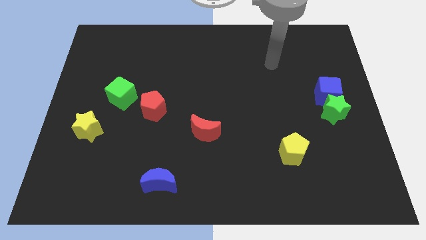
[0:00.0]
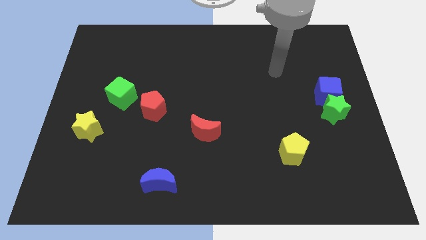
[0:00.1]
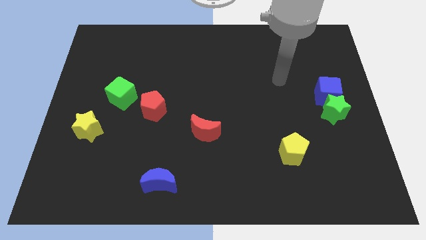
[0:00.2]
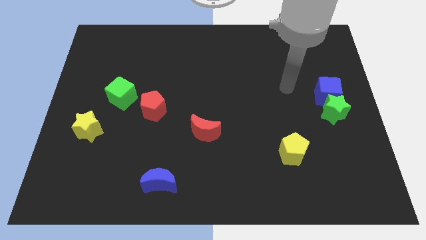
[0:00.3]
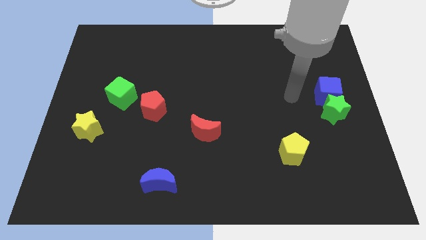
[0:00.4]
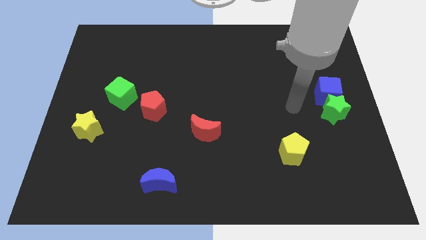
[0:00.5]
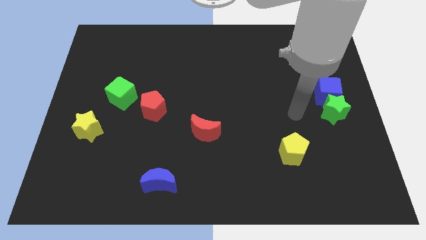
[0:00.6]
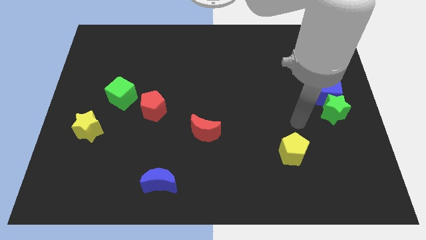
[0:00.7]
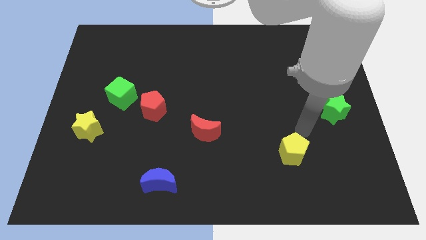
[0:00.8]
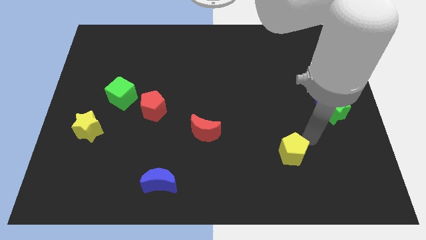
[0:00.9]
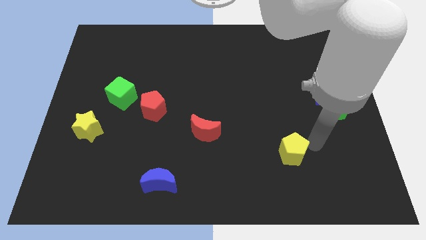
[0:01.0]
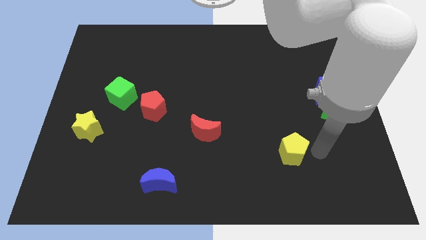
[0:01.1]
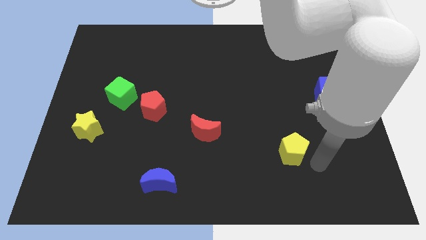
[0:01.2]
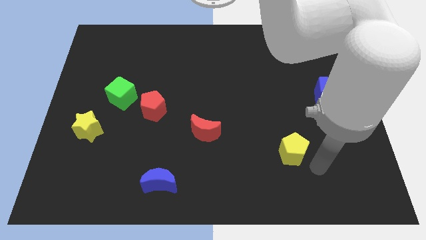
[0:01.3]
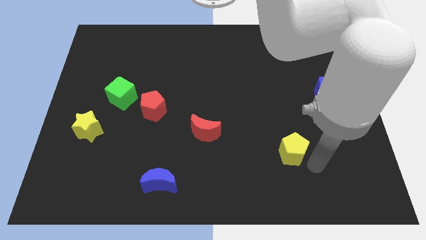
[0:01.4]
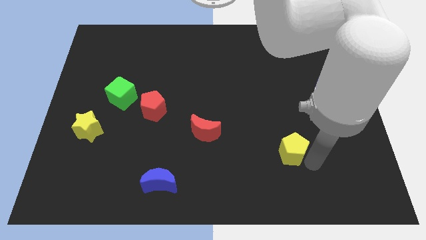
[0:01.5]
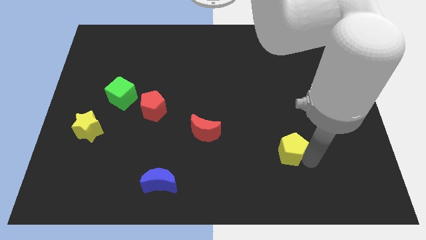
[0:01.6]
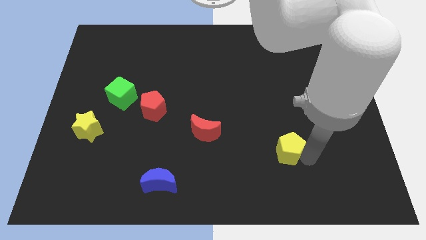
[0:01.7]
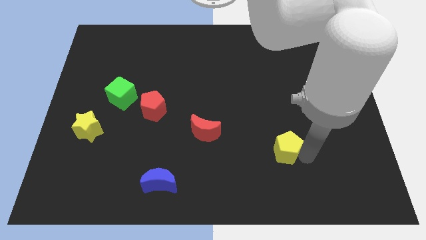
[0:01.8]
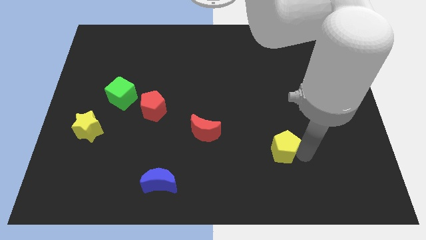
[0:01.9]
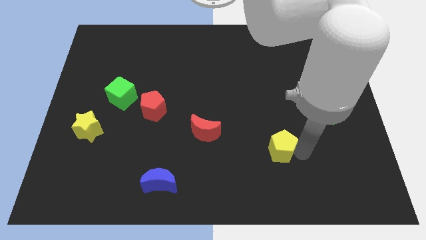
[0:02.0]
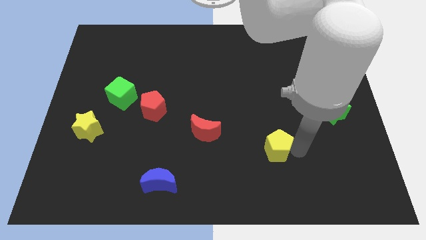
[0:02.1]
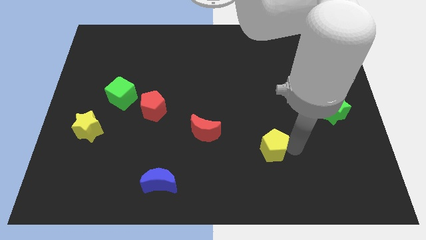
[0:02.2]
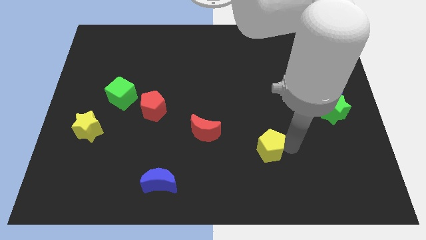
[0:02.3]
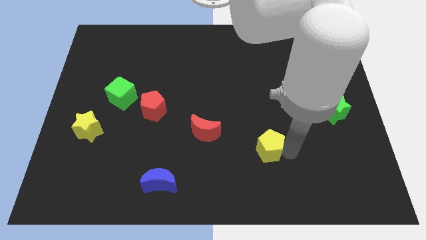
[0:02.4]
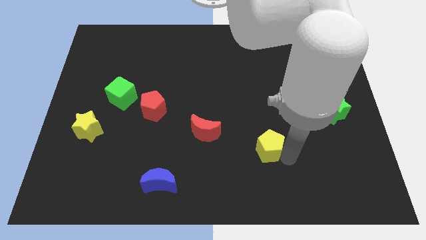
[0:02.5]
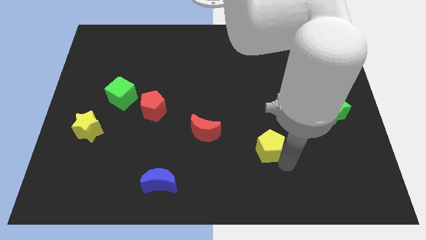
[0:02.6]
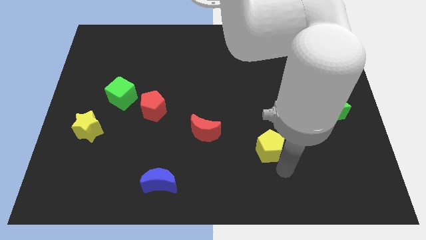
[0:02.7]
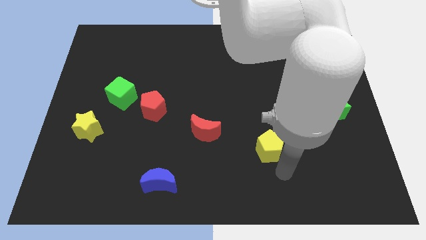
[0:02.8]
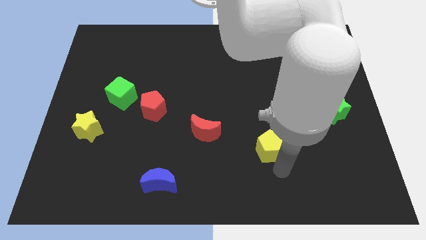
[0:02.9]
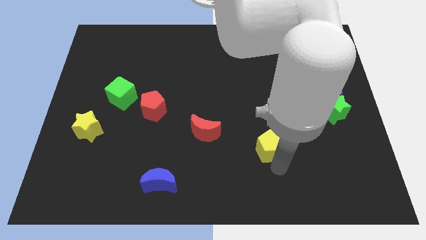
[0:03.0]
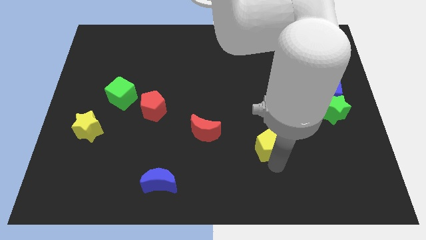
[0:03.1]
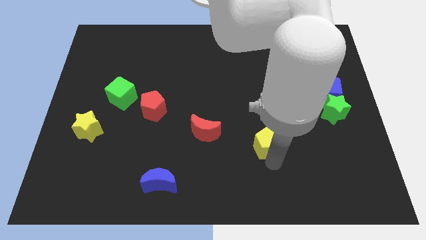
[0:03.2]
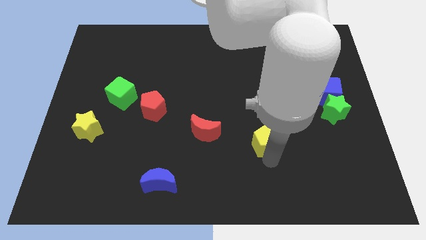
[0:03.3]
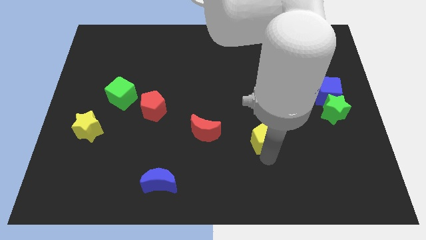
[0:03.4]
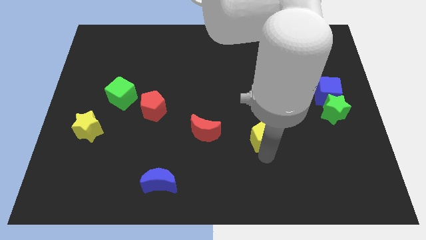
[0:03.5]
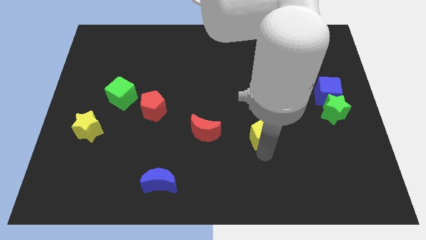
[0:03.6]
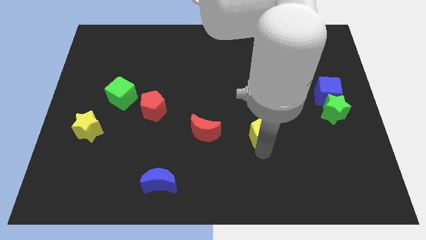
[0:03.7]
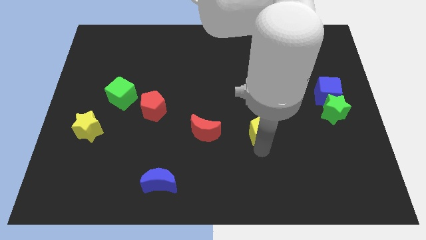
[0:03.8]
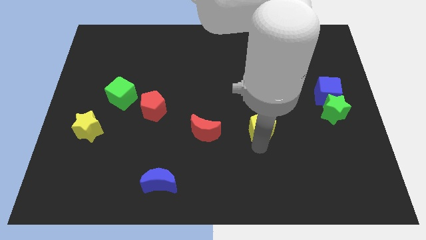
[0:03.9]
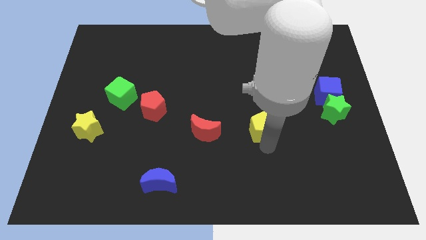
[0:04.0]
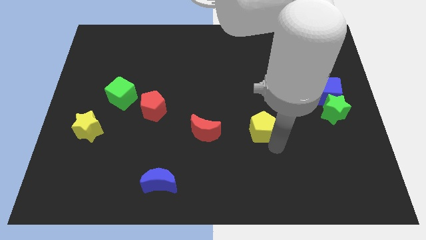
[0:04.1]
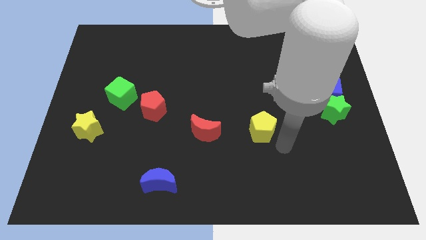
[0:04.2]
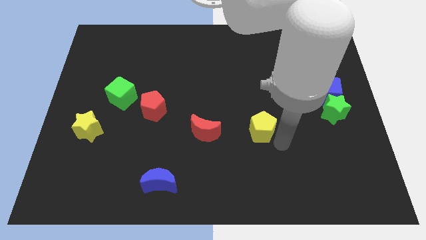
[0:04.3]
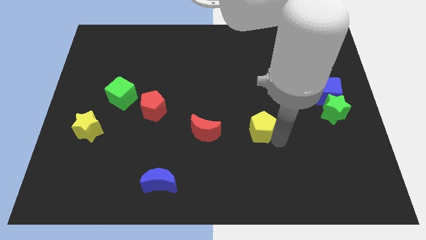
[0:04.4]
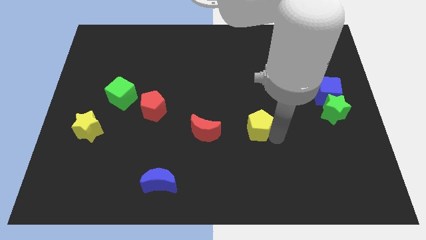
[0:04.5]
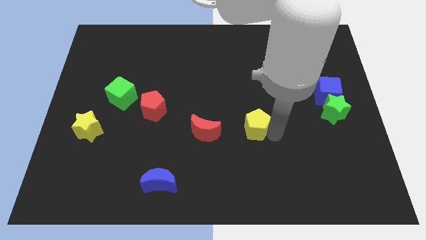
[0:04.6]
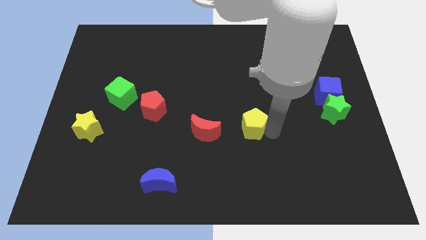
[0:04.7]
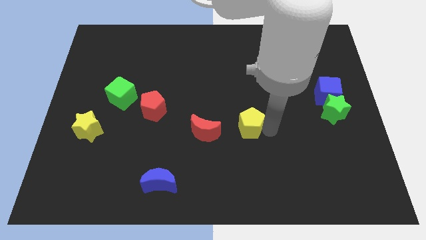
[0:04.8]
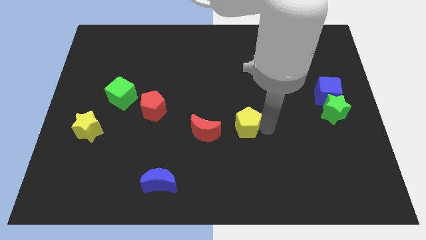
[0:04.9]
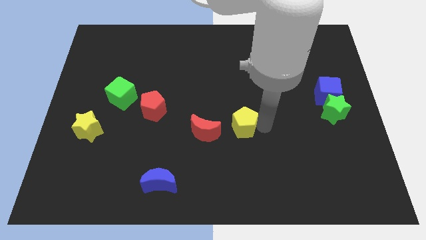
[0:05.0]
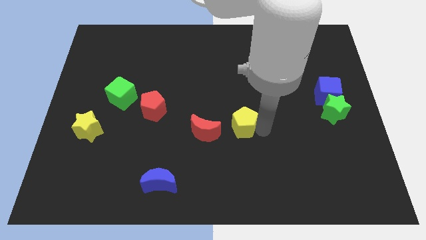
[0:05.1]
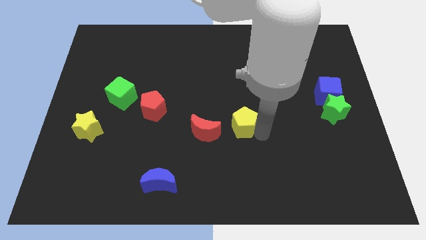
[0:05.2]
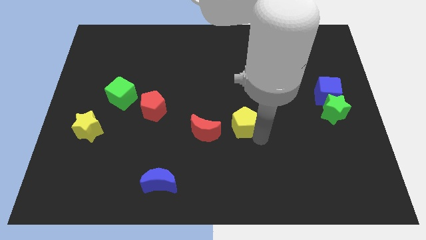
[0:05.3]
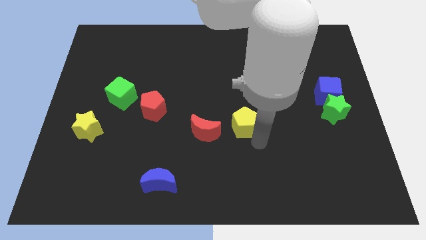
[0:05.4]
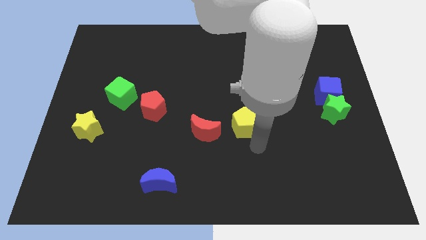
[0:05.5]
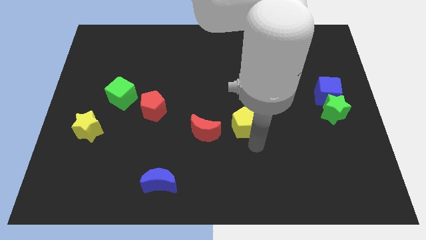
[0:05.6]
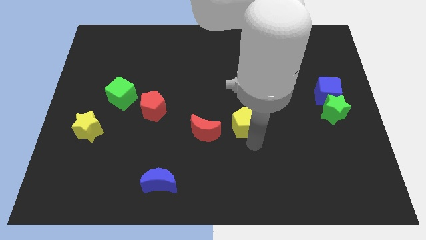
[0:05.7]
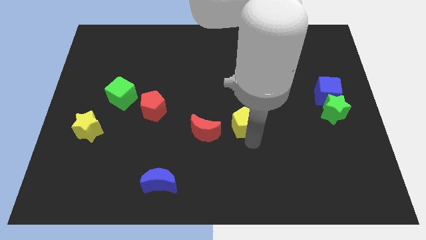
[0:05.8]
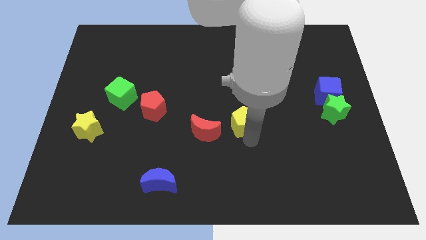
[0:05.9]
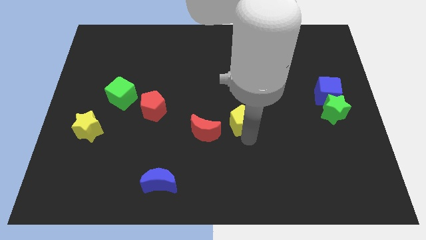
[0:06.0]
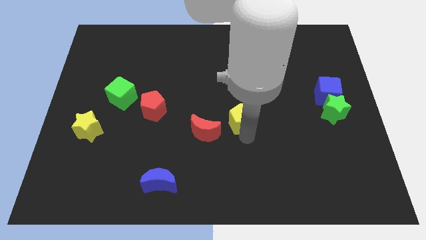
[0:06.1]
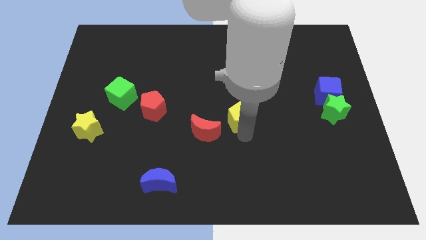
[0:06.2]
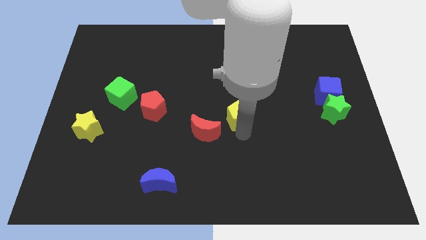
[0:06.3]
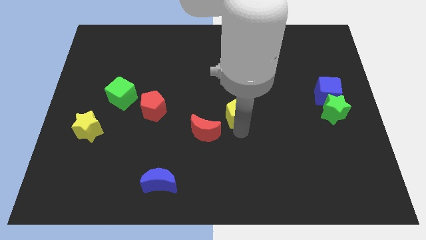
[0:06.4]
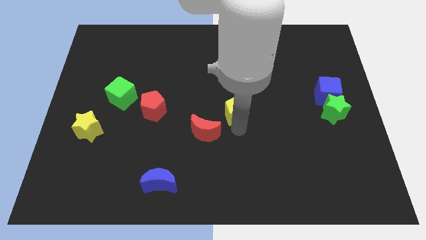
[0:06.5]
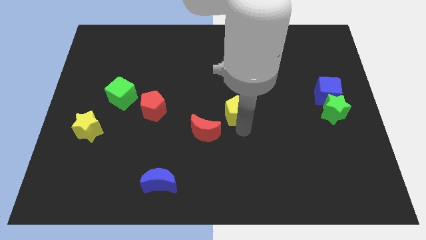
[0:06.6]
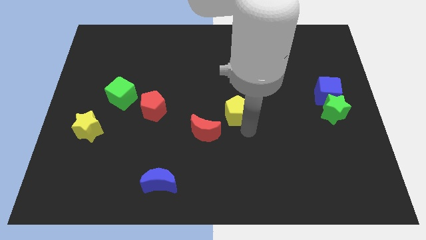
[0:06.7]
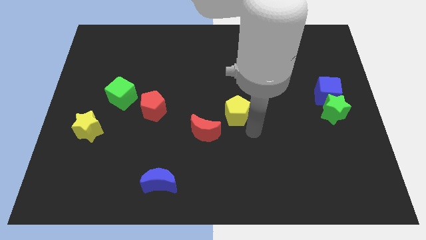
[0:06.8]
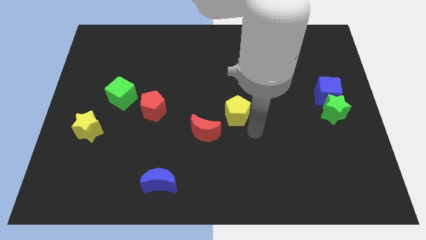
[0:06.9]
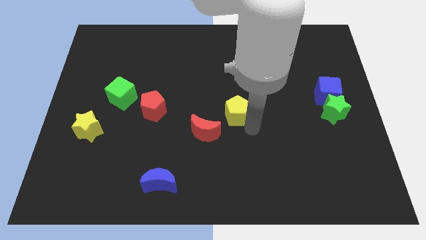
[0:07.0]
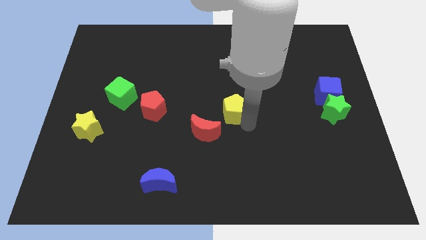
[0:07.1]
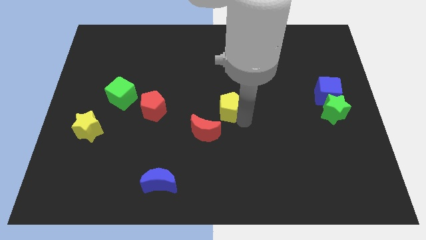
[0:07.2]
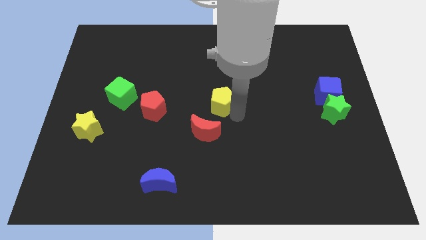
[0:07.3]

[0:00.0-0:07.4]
slide the yellow pentagon upwards and then left

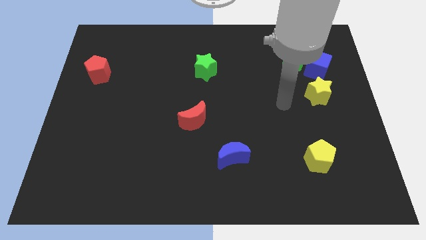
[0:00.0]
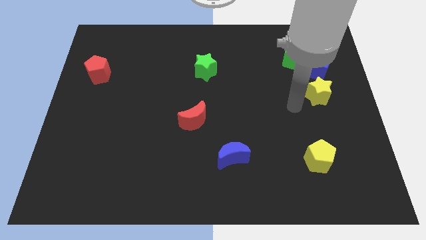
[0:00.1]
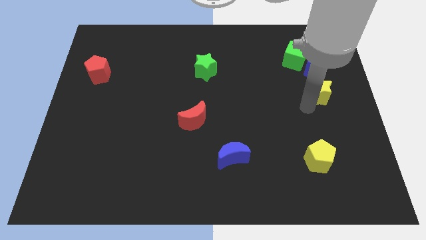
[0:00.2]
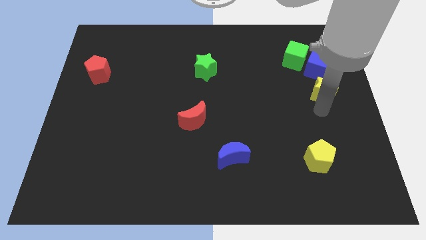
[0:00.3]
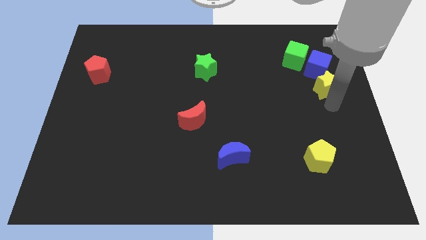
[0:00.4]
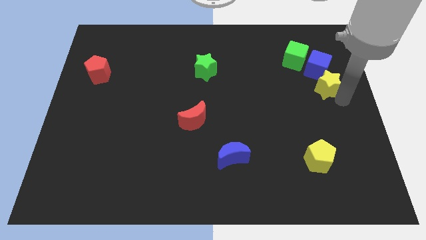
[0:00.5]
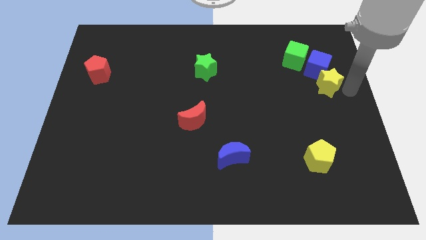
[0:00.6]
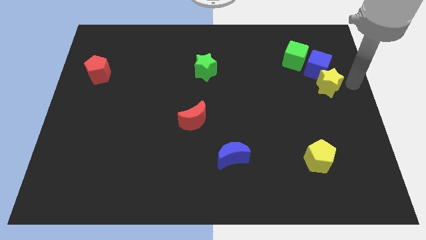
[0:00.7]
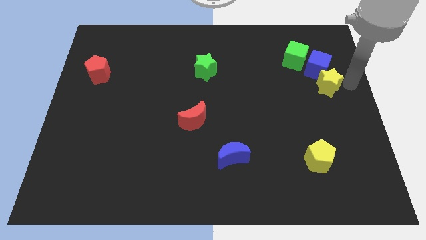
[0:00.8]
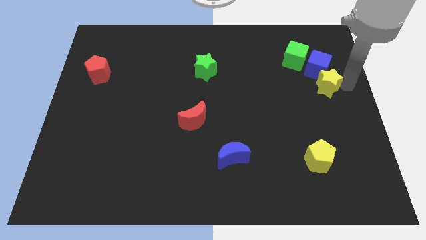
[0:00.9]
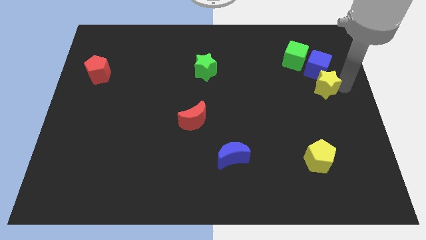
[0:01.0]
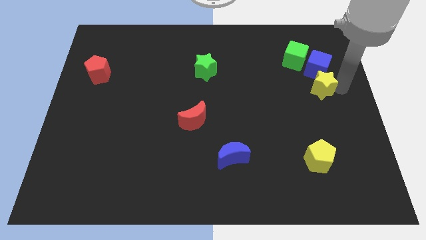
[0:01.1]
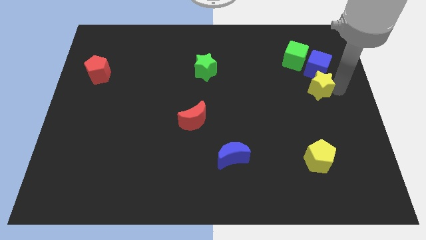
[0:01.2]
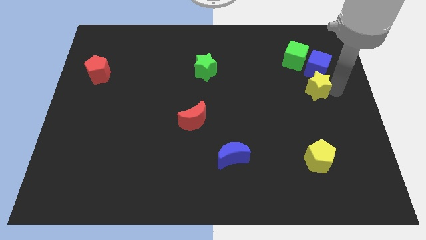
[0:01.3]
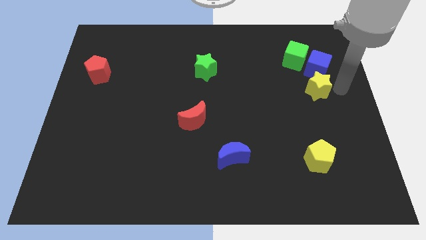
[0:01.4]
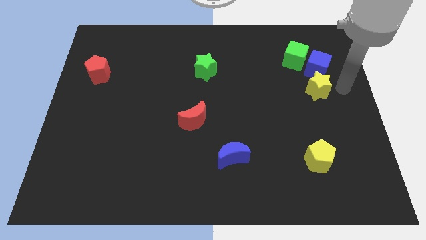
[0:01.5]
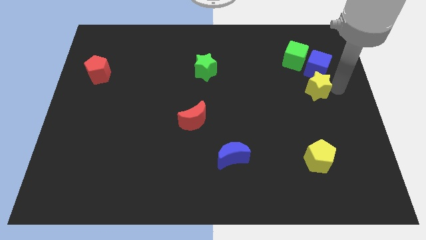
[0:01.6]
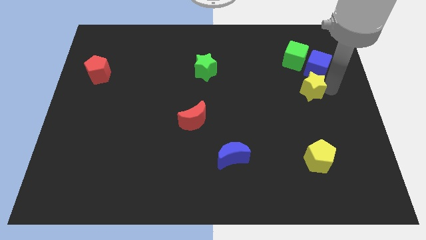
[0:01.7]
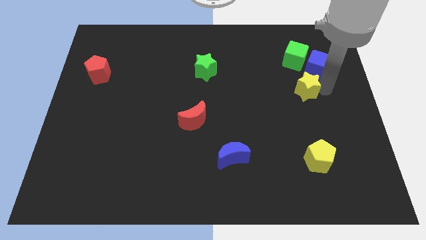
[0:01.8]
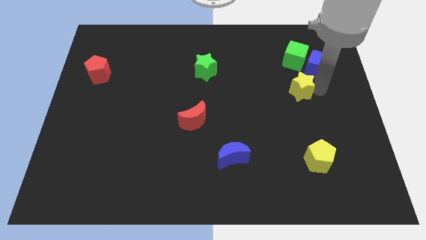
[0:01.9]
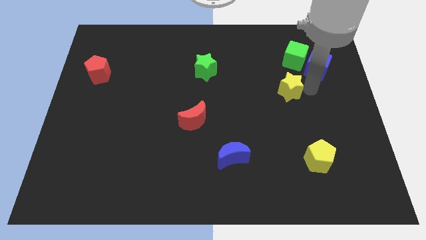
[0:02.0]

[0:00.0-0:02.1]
slide the yellow star a bit to the left
